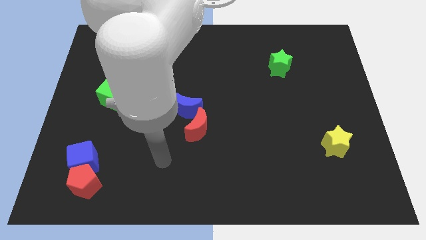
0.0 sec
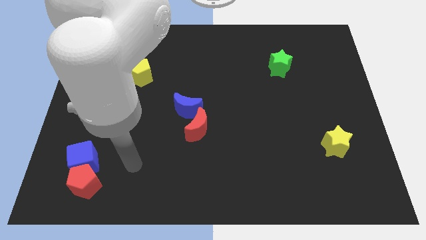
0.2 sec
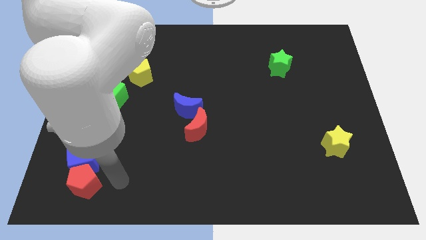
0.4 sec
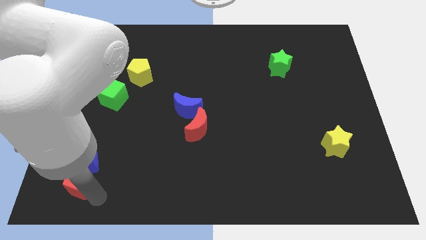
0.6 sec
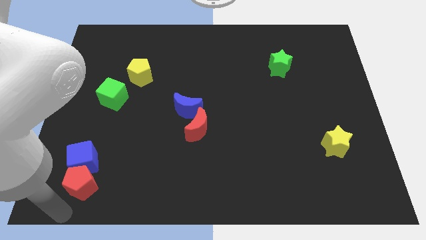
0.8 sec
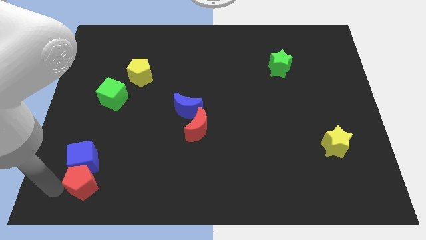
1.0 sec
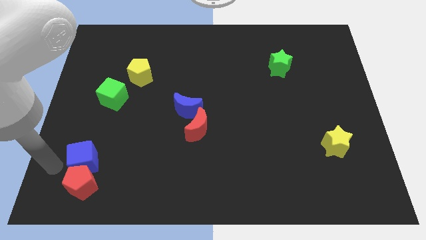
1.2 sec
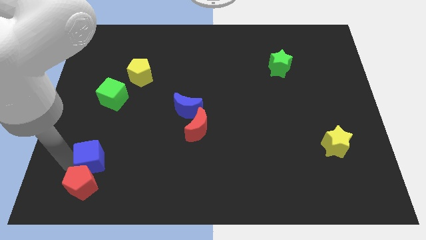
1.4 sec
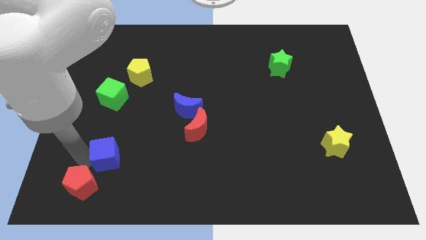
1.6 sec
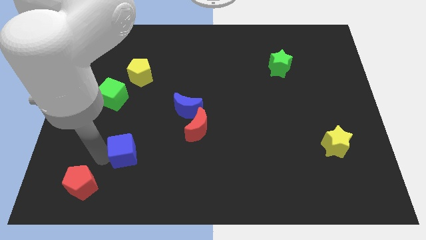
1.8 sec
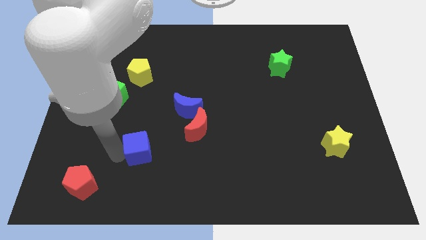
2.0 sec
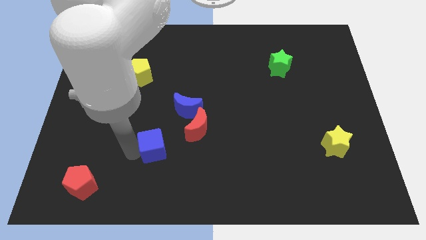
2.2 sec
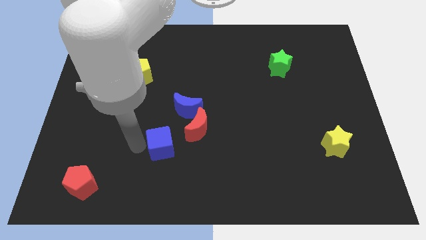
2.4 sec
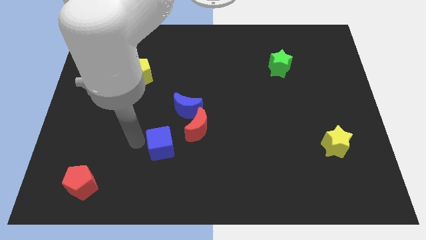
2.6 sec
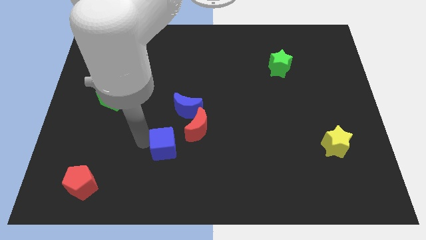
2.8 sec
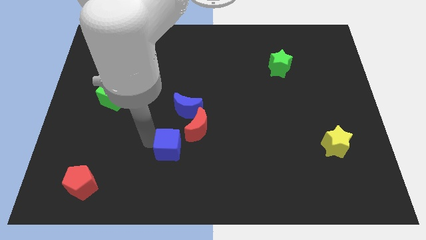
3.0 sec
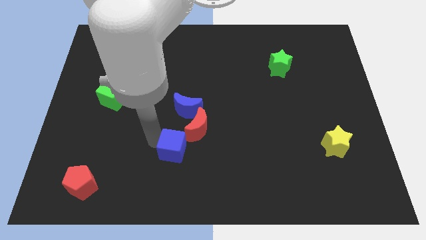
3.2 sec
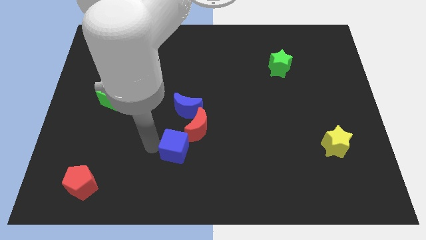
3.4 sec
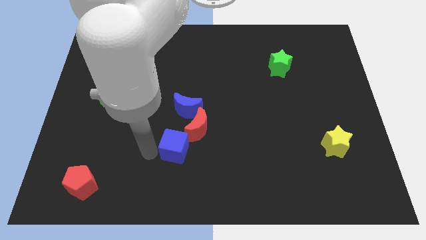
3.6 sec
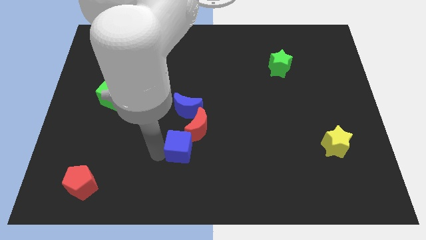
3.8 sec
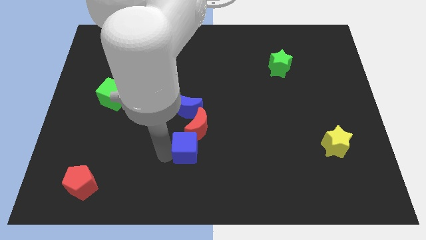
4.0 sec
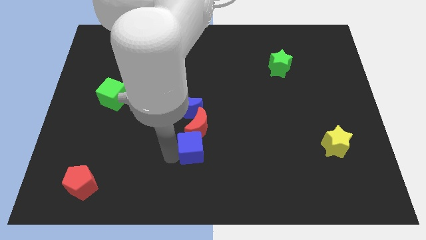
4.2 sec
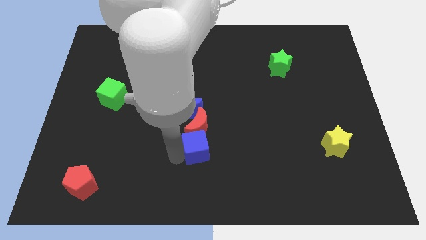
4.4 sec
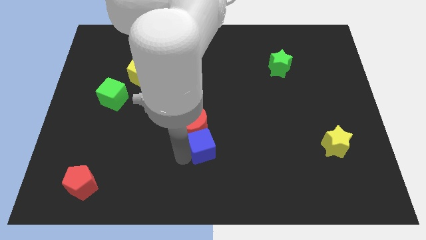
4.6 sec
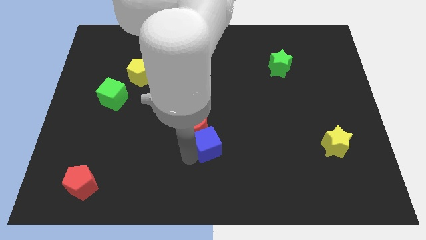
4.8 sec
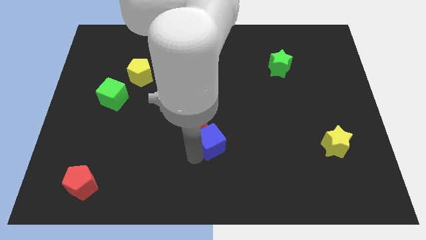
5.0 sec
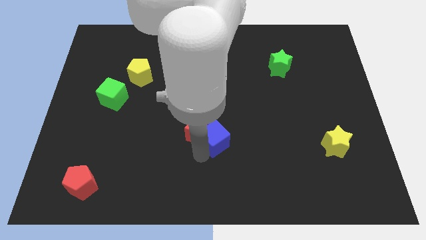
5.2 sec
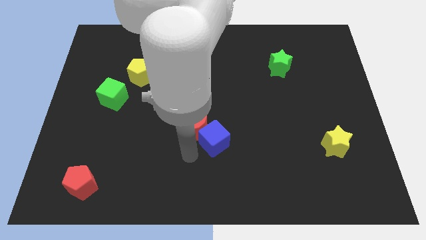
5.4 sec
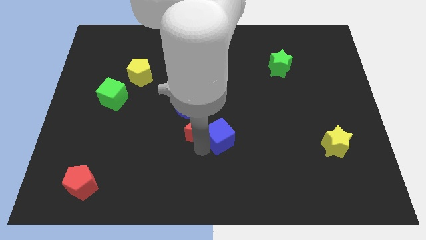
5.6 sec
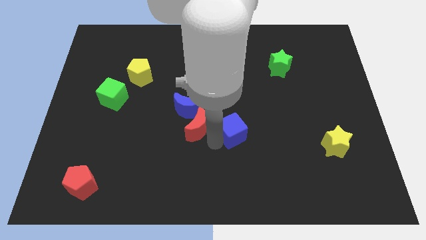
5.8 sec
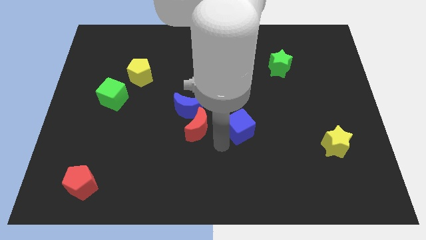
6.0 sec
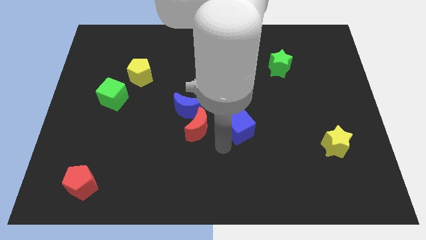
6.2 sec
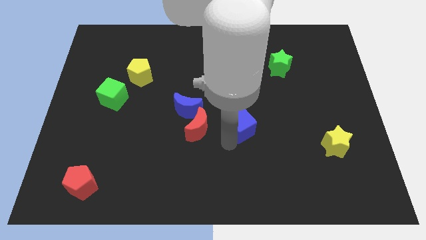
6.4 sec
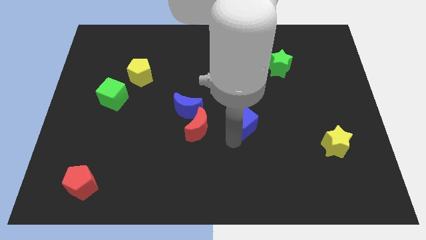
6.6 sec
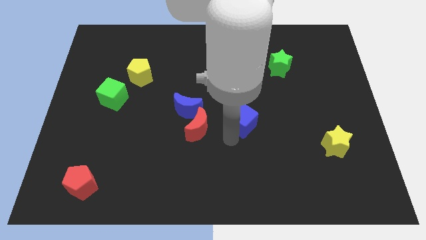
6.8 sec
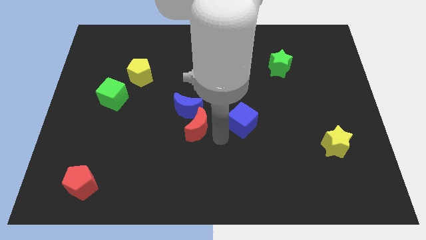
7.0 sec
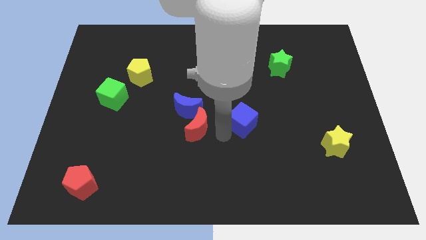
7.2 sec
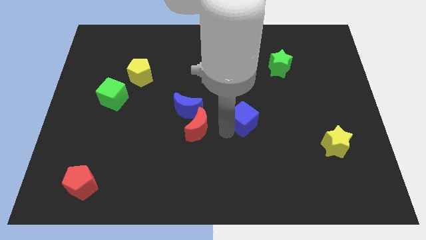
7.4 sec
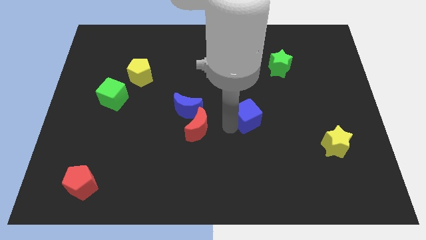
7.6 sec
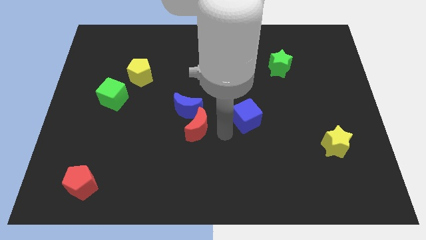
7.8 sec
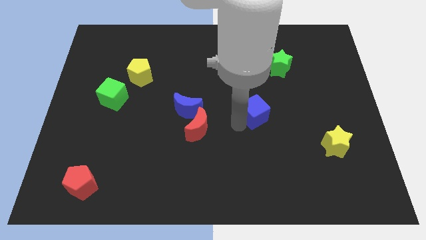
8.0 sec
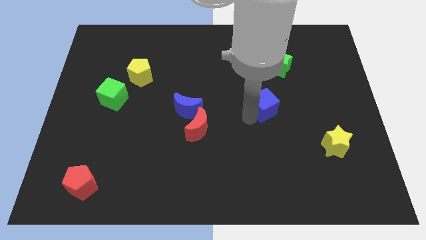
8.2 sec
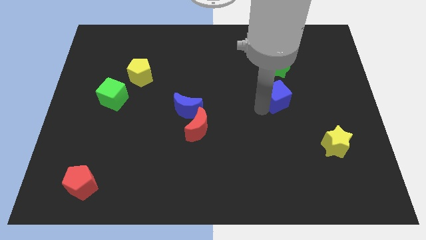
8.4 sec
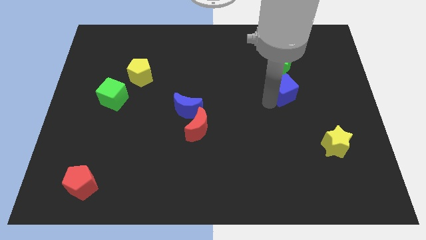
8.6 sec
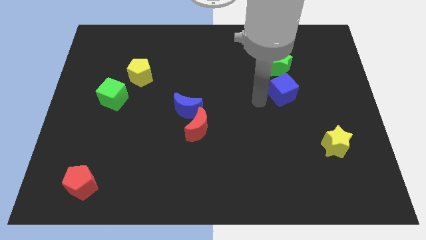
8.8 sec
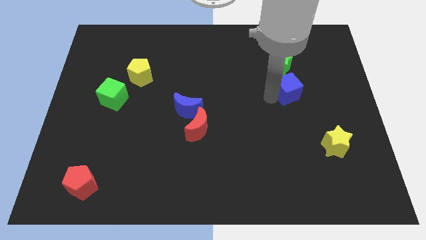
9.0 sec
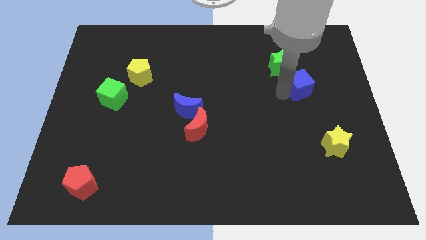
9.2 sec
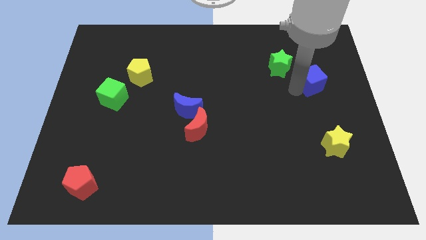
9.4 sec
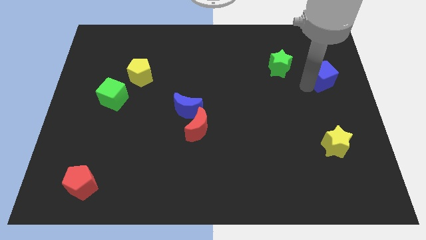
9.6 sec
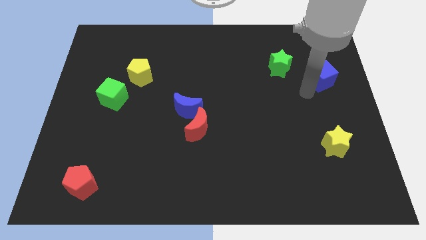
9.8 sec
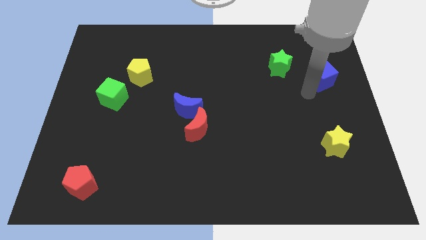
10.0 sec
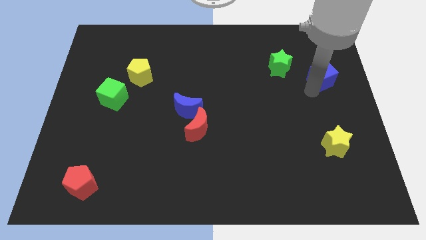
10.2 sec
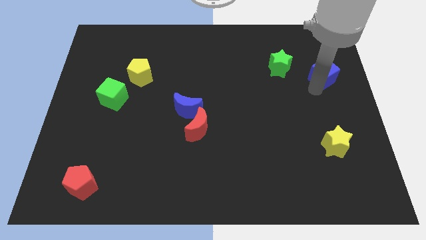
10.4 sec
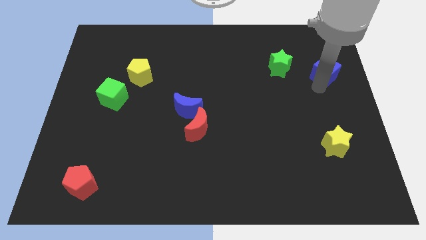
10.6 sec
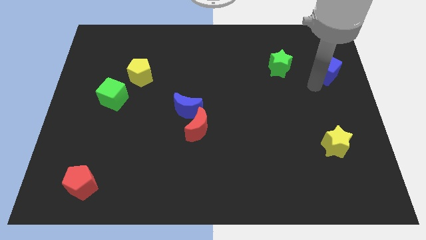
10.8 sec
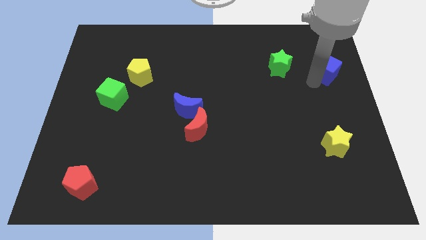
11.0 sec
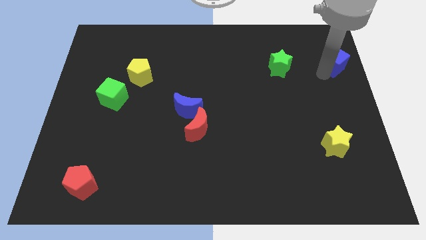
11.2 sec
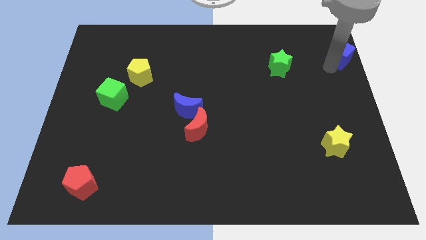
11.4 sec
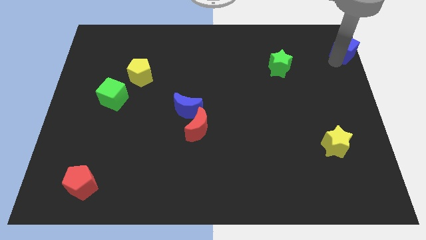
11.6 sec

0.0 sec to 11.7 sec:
push the blue cube to the top right

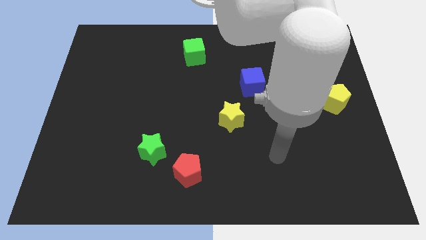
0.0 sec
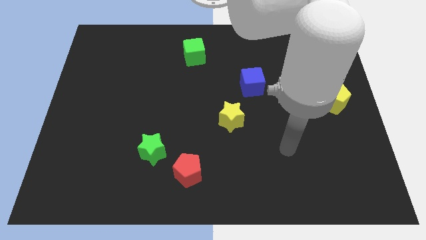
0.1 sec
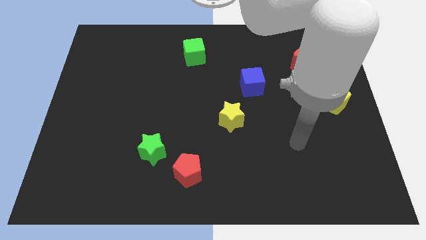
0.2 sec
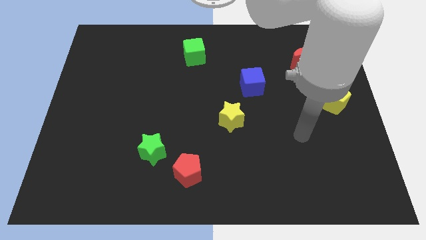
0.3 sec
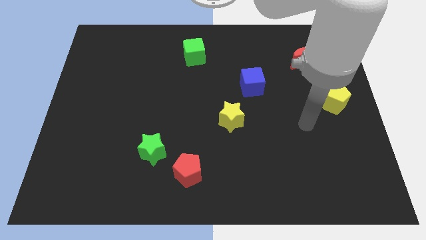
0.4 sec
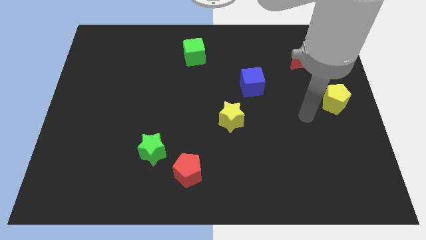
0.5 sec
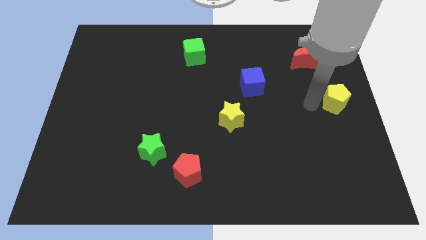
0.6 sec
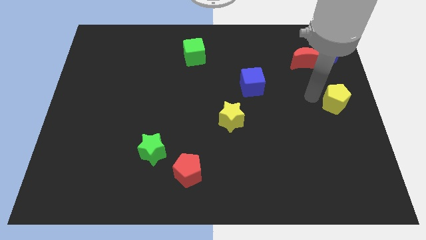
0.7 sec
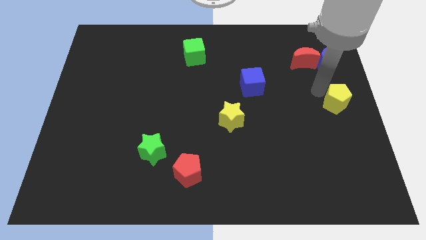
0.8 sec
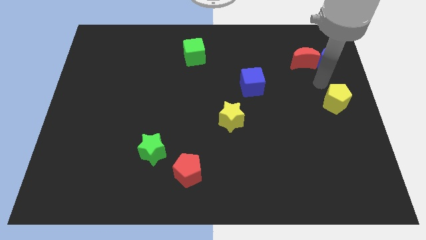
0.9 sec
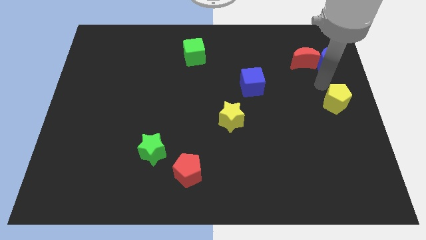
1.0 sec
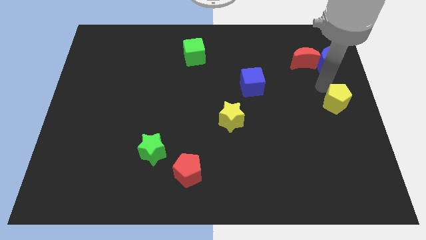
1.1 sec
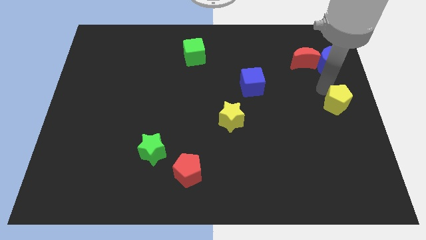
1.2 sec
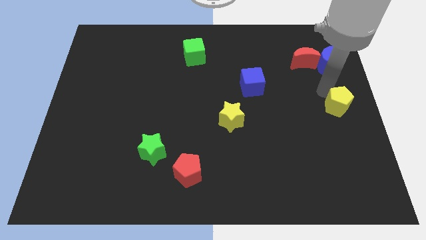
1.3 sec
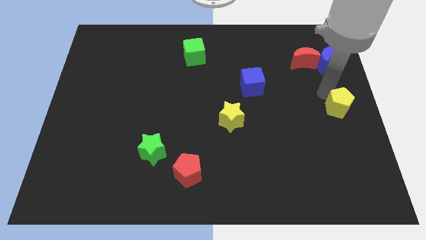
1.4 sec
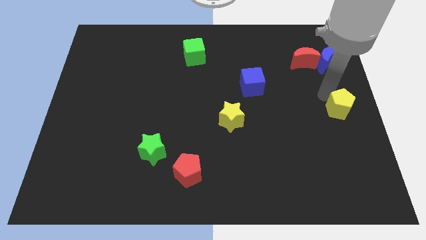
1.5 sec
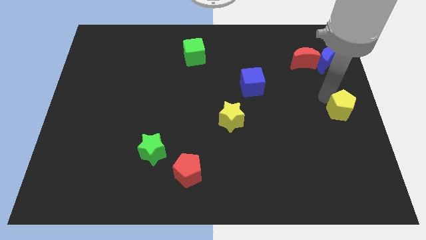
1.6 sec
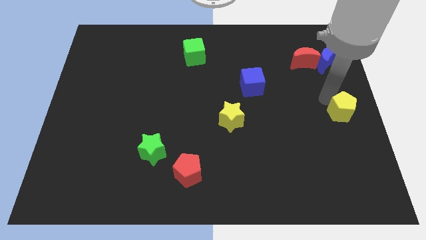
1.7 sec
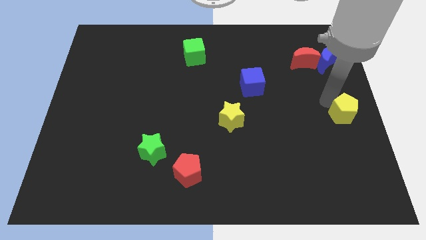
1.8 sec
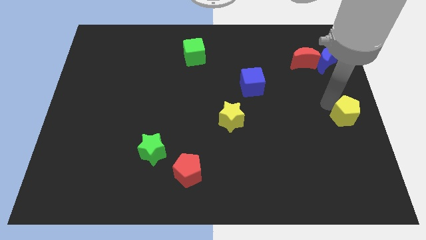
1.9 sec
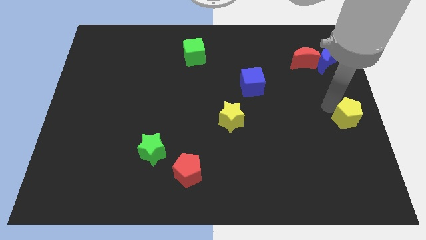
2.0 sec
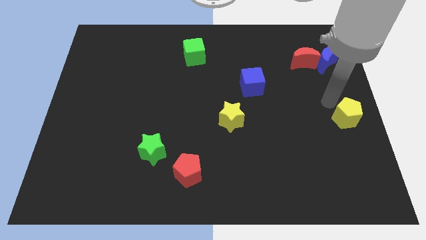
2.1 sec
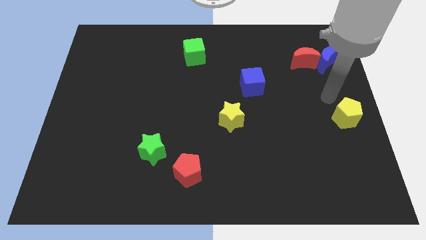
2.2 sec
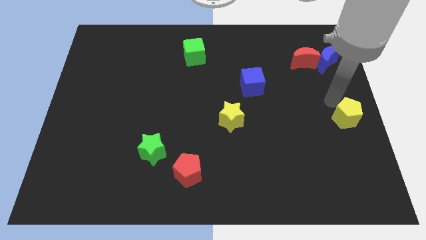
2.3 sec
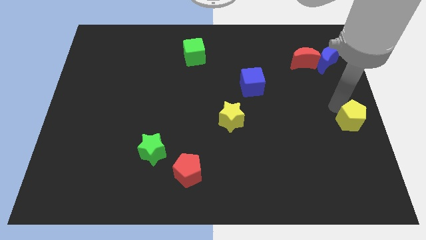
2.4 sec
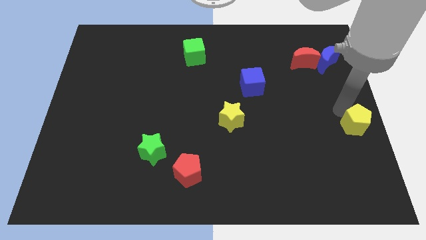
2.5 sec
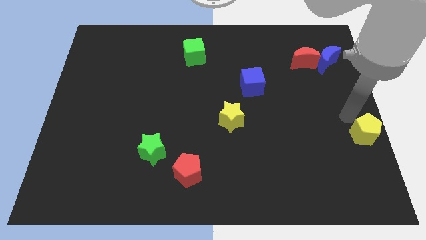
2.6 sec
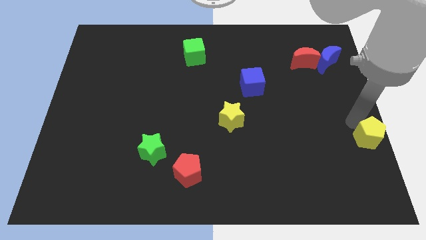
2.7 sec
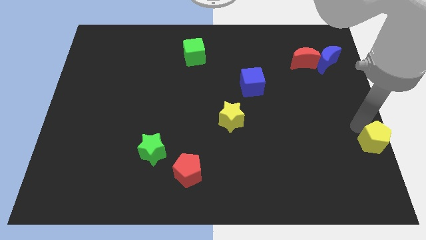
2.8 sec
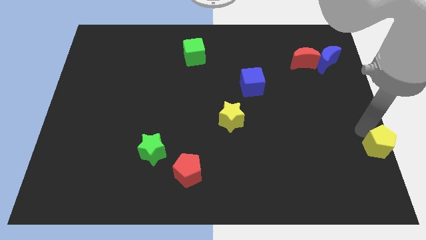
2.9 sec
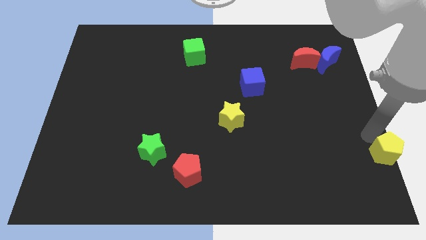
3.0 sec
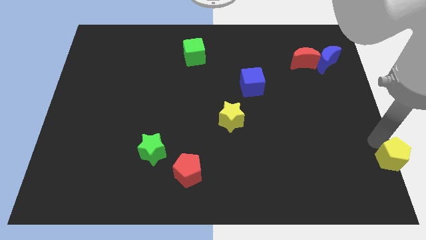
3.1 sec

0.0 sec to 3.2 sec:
slide the yellow pentagon to the bottom right corner
